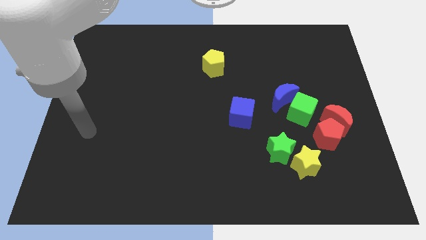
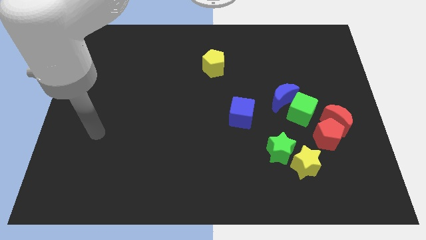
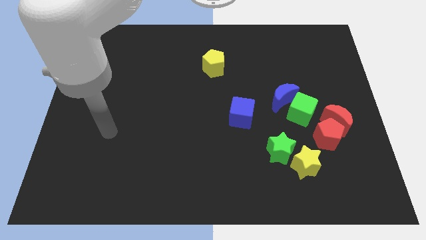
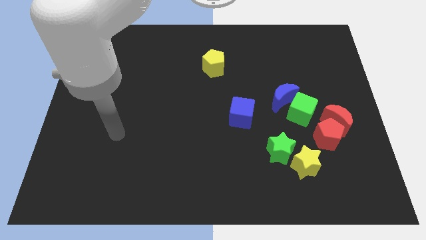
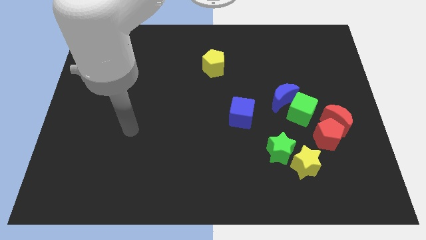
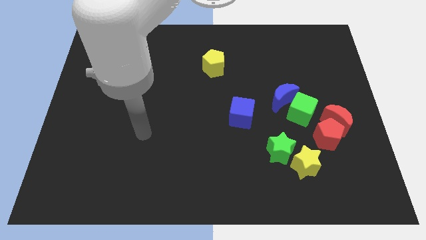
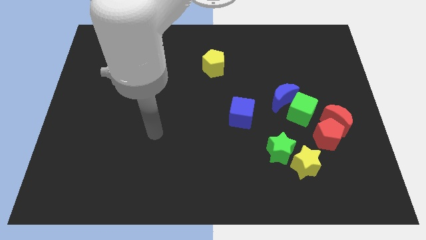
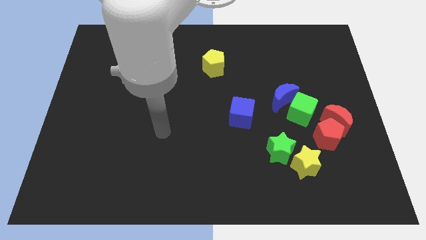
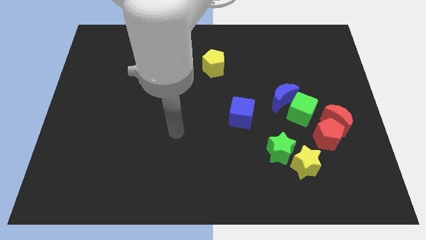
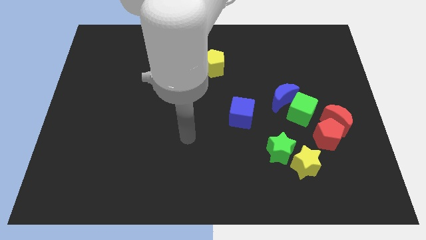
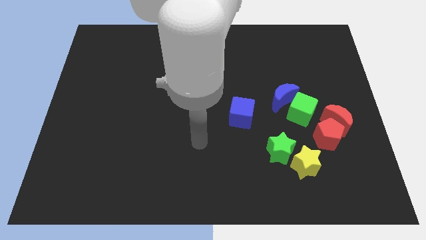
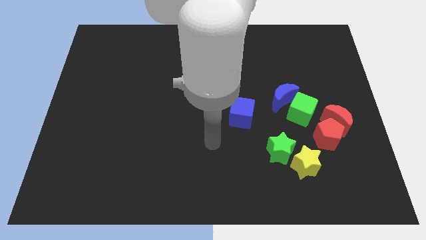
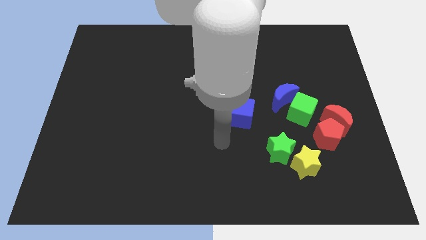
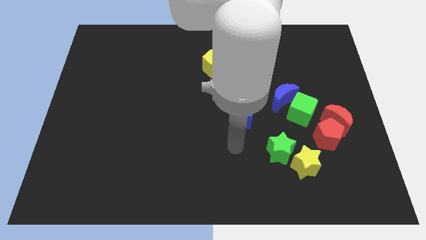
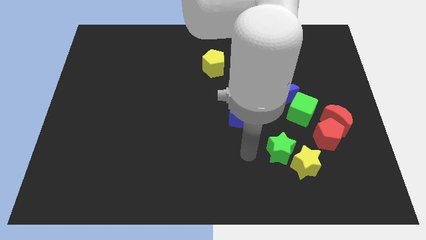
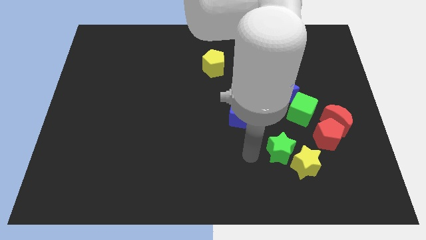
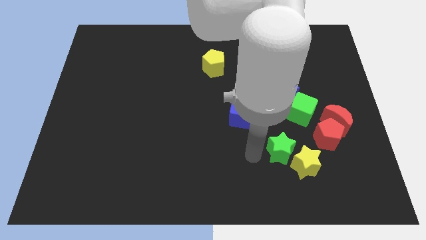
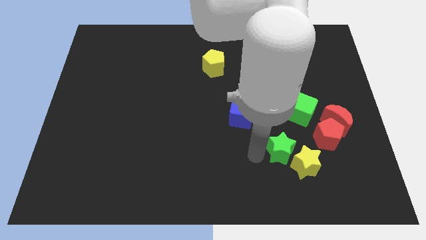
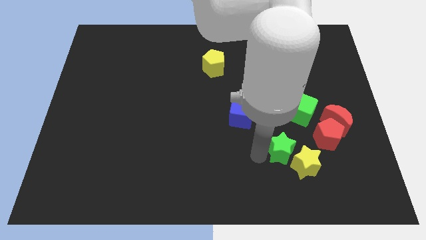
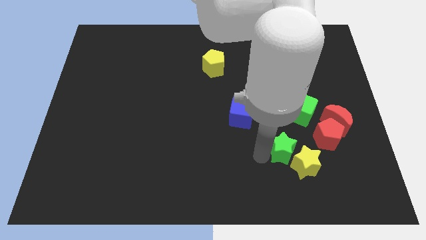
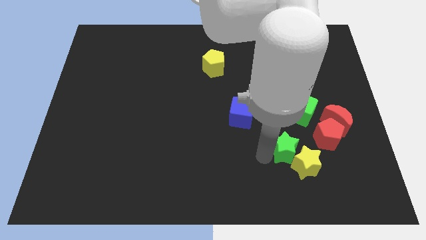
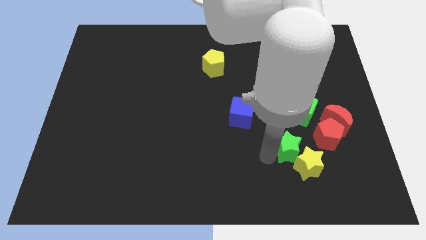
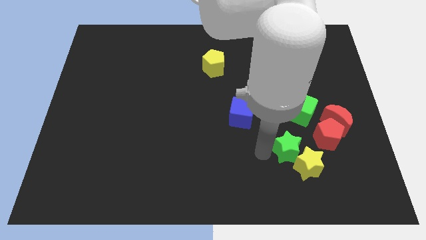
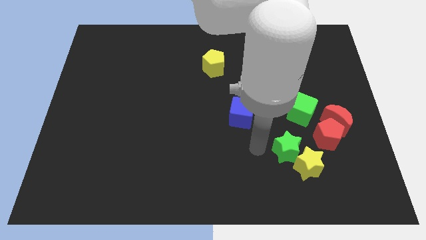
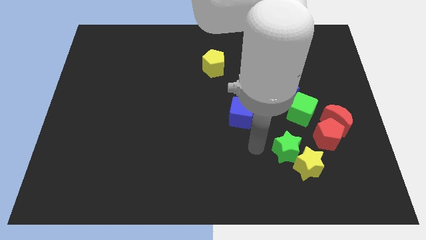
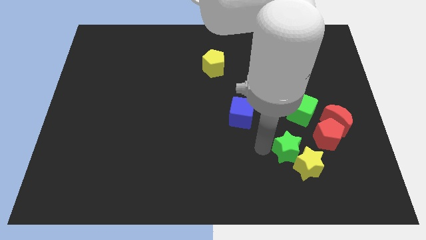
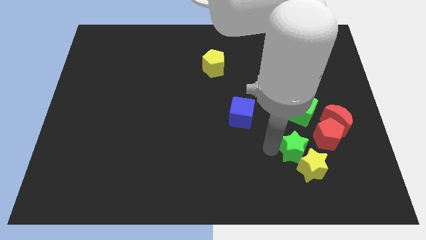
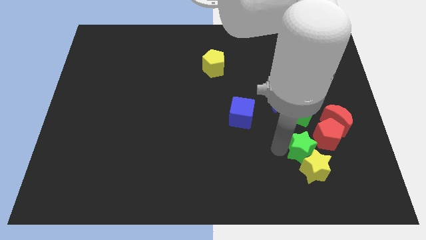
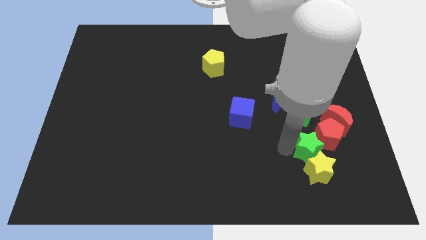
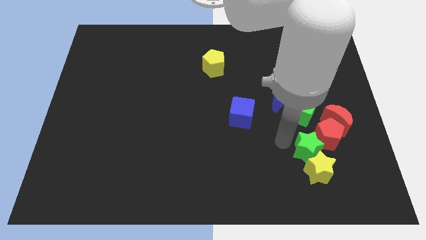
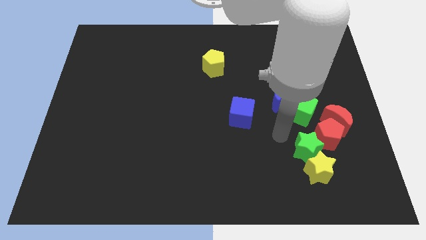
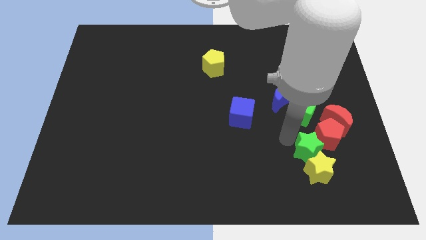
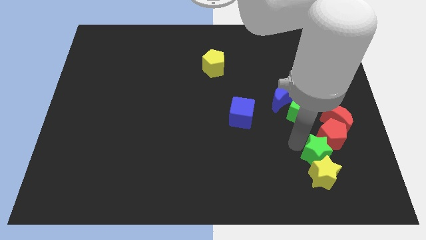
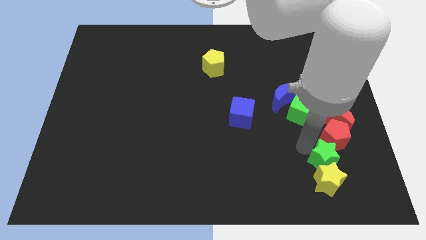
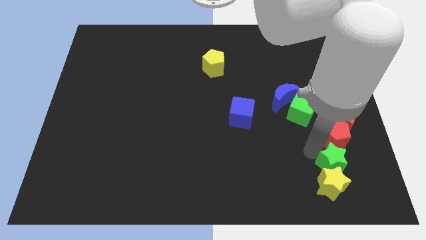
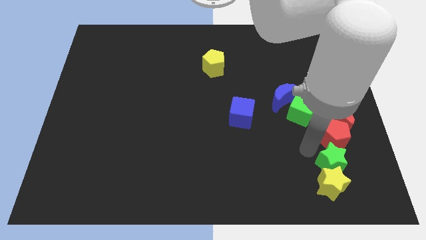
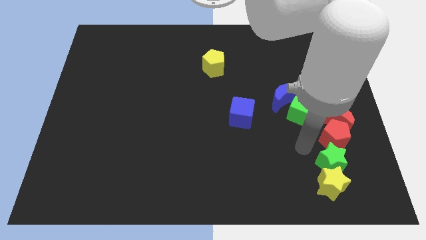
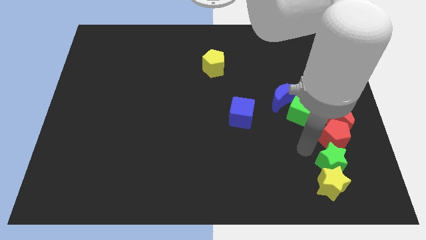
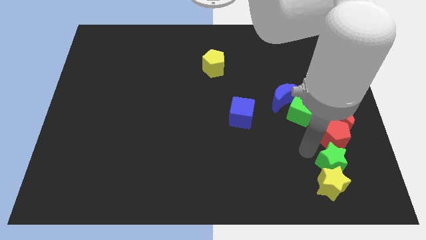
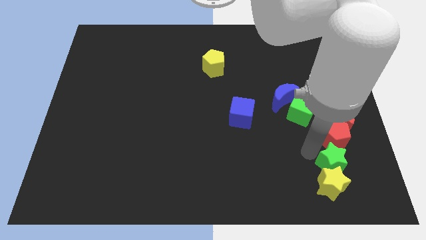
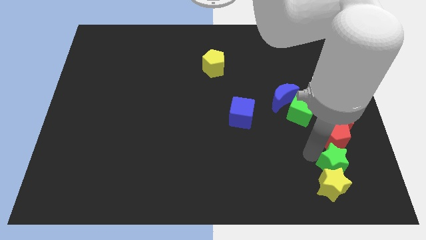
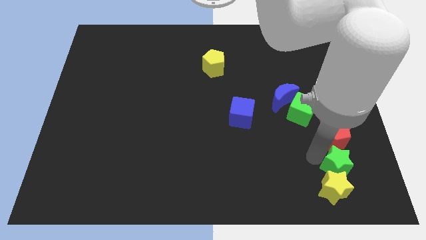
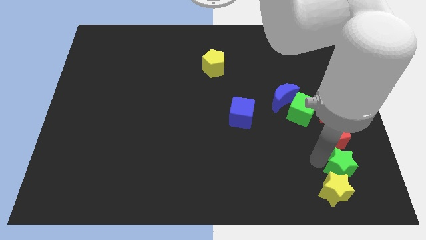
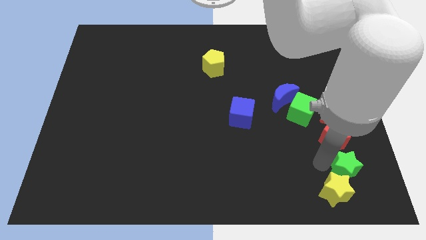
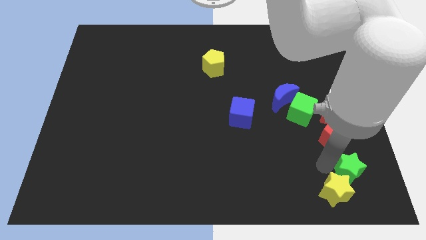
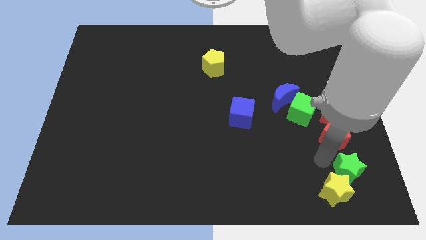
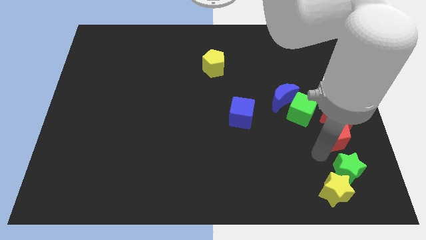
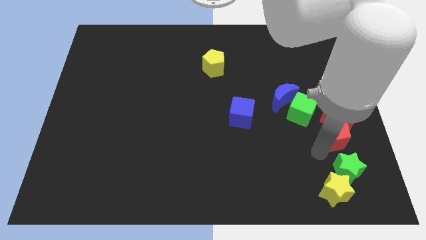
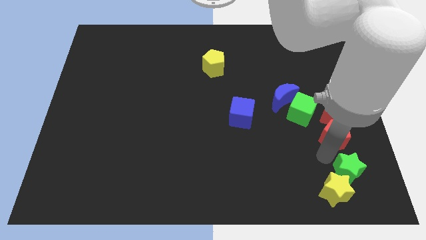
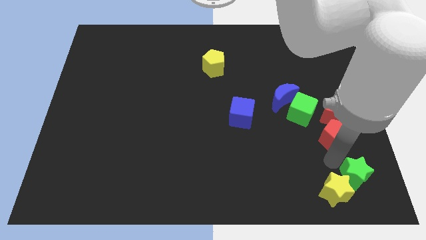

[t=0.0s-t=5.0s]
push the green star to the lower right corner

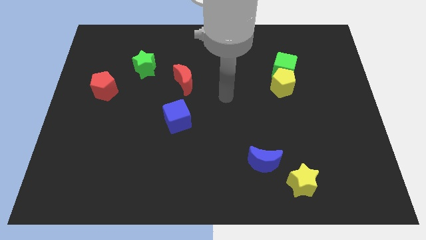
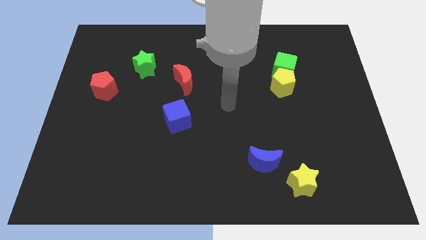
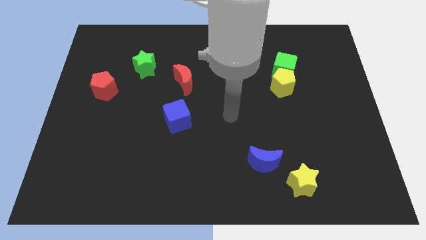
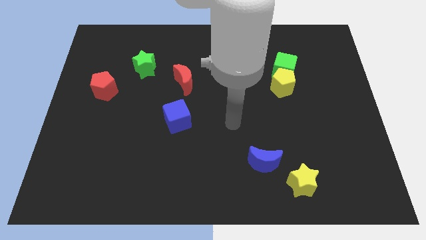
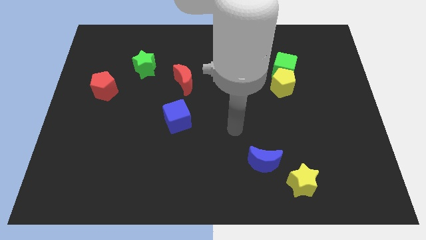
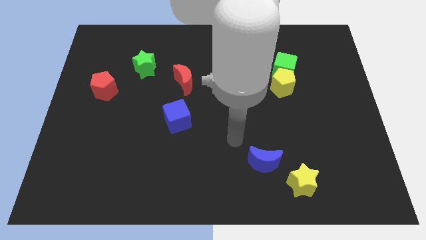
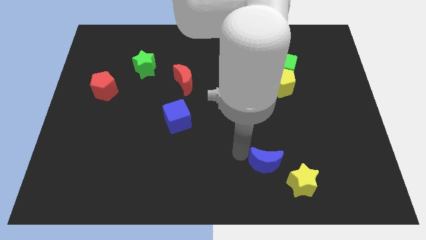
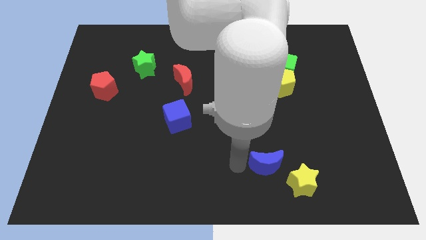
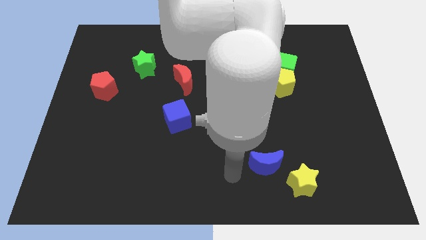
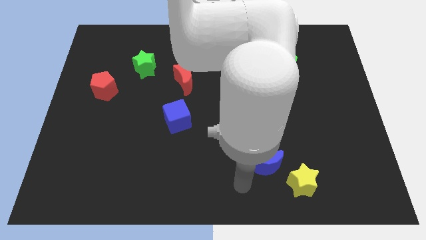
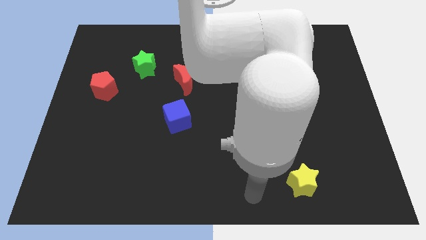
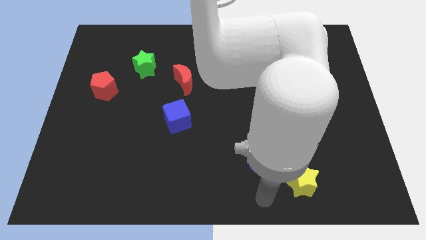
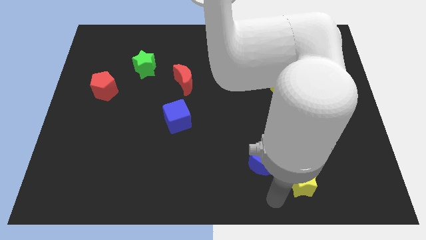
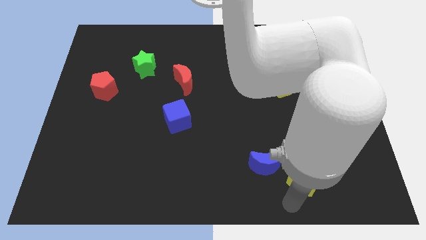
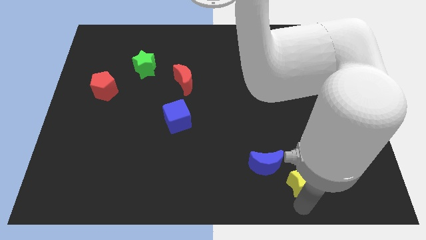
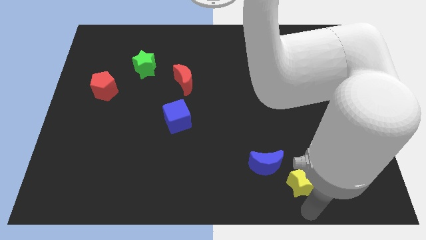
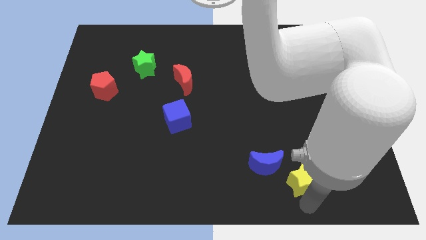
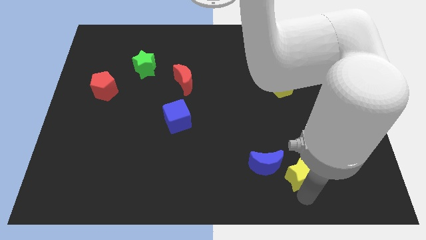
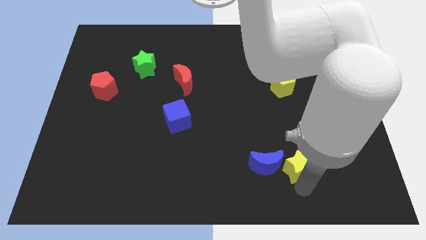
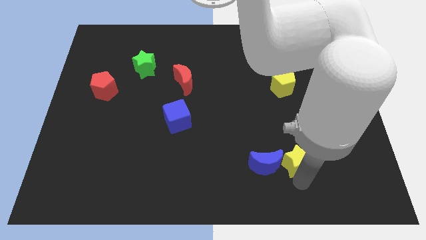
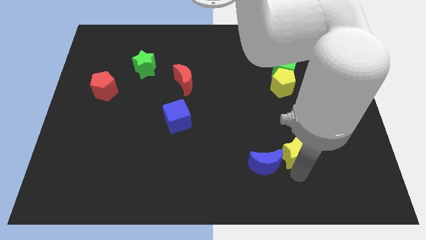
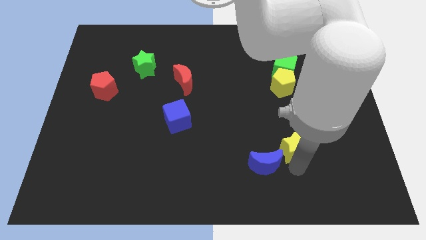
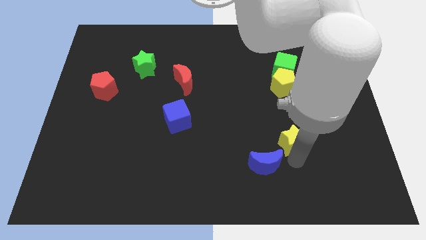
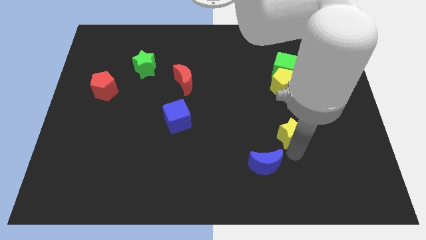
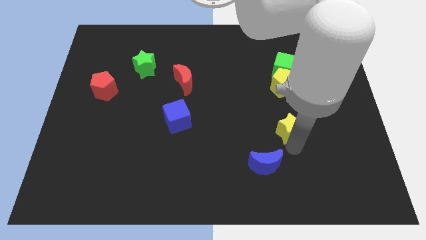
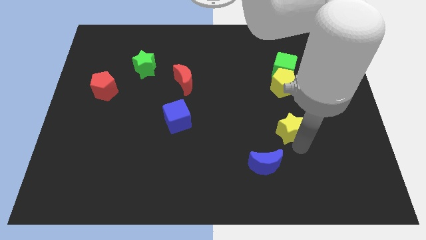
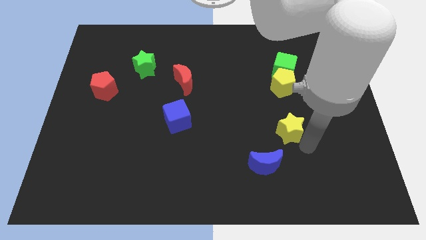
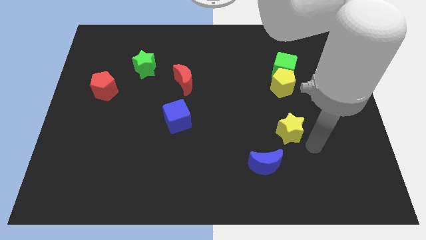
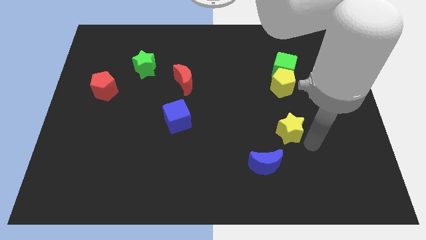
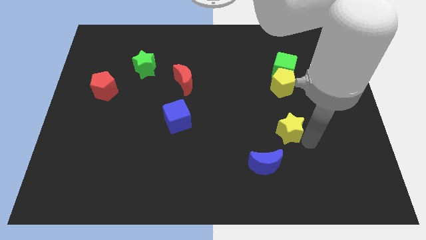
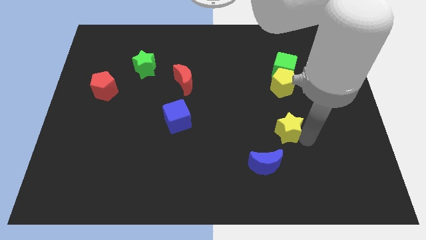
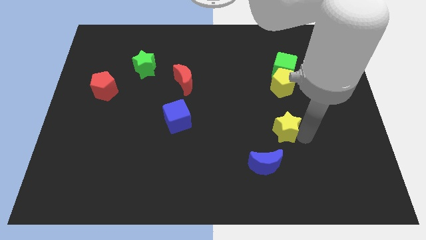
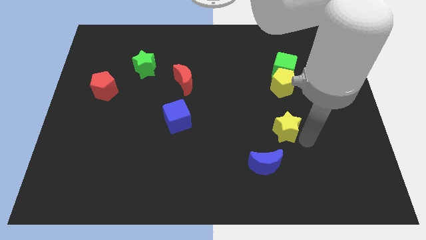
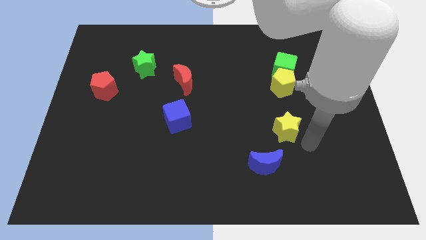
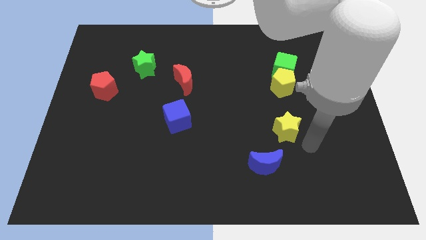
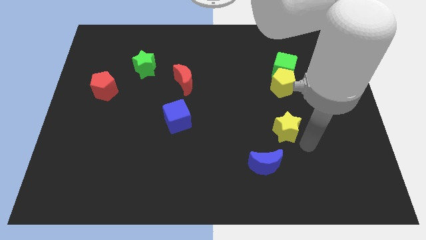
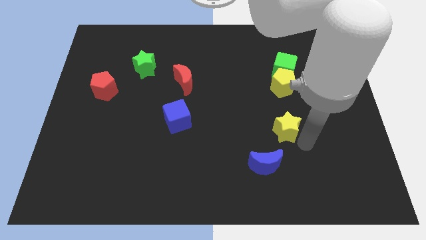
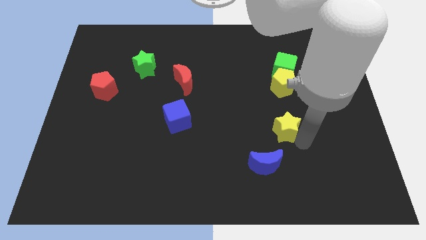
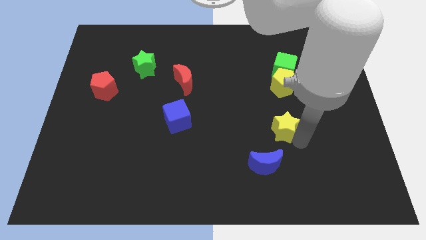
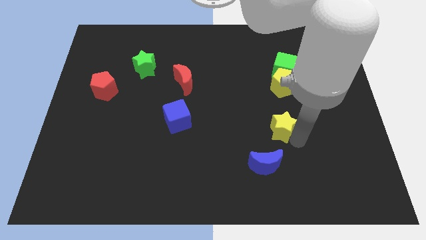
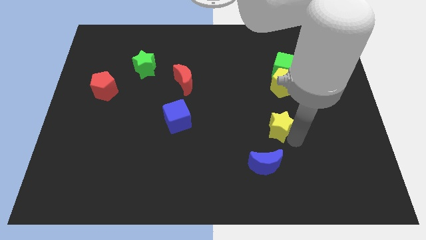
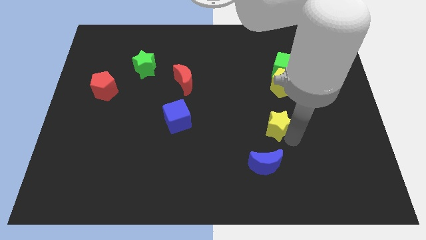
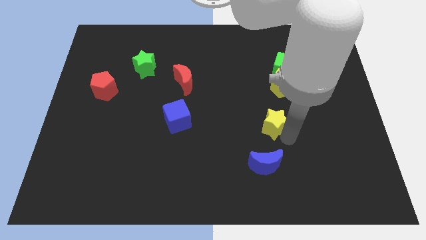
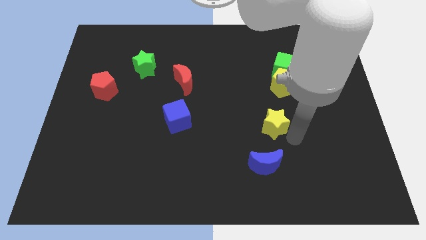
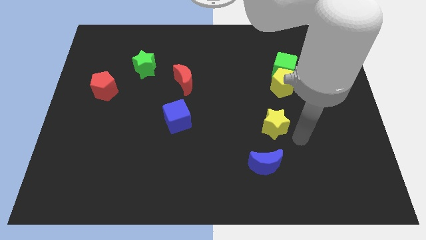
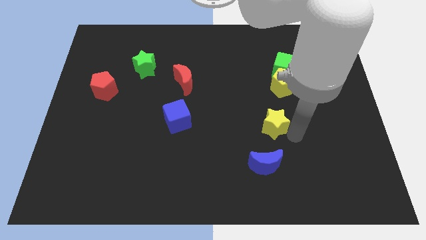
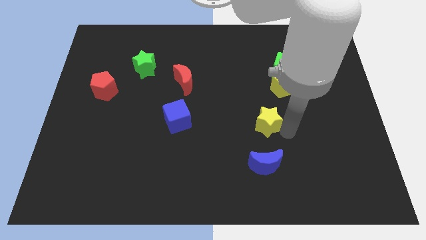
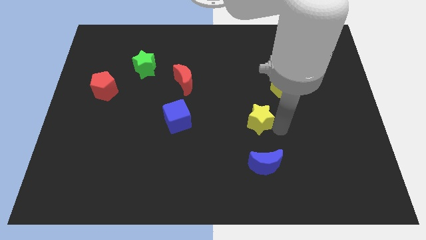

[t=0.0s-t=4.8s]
move the yellow star to the center
